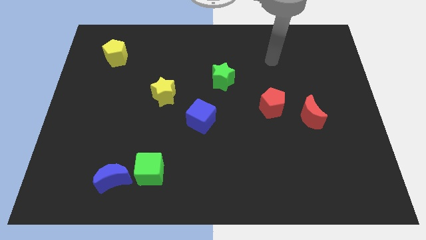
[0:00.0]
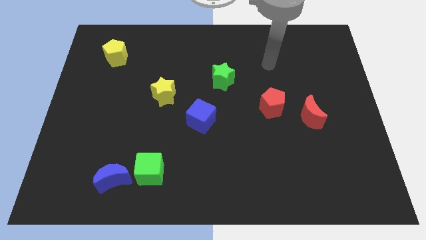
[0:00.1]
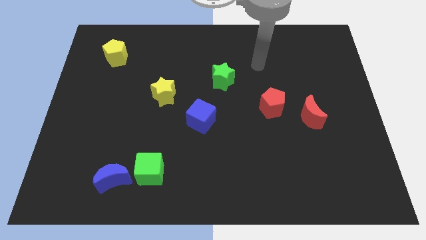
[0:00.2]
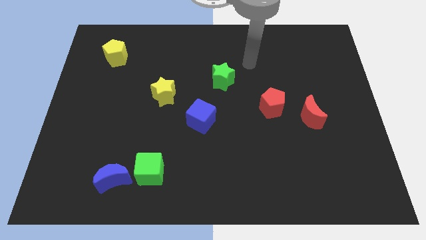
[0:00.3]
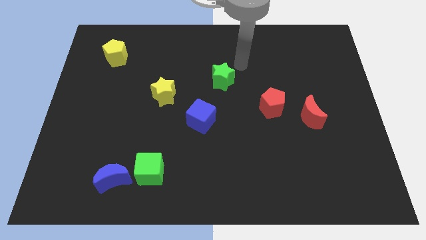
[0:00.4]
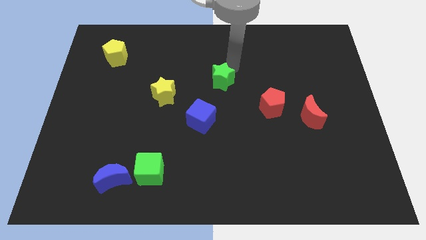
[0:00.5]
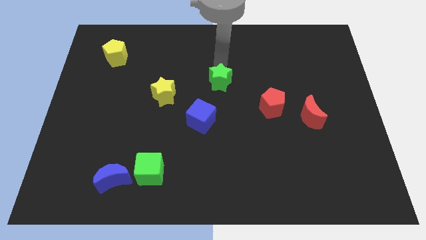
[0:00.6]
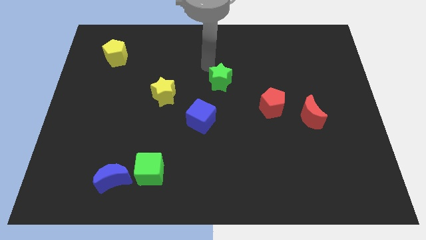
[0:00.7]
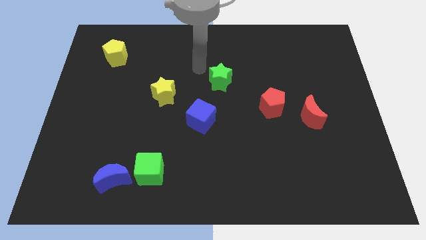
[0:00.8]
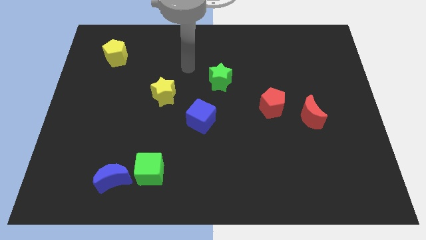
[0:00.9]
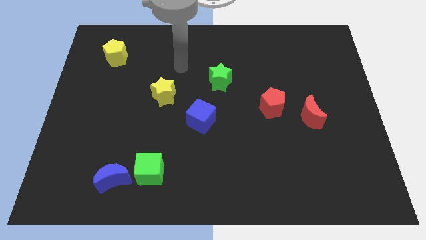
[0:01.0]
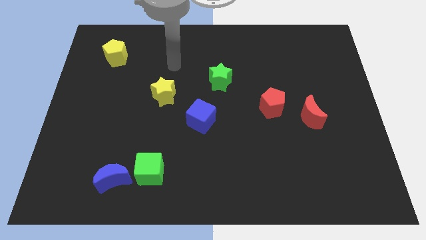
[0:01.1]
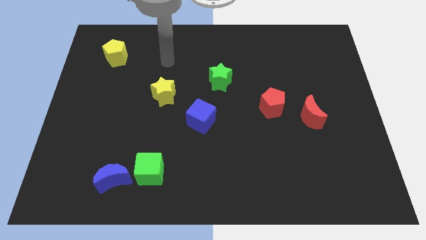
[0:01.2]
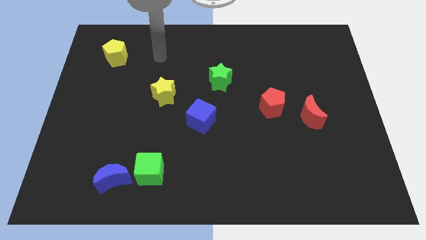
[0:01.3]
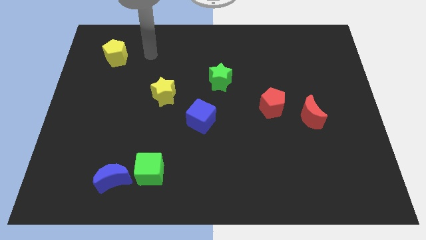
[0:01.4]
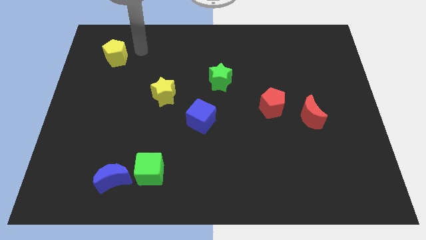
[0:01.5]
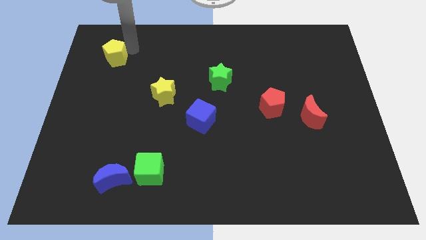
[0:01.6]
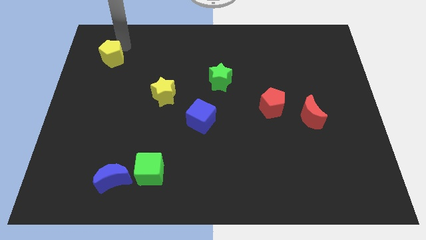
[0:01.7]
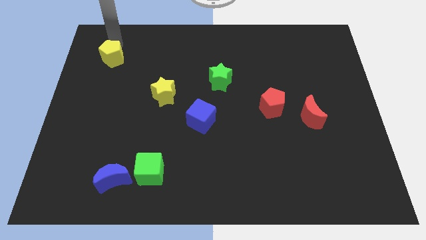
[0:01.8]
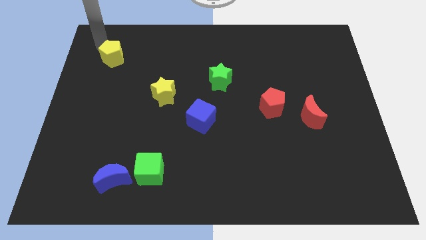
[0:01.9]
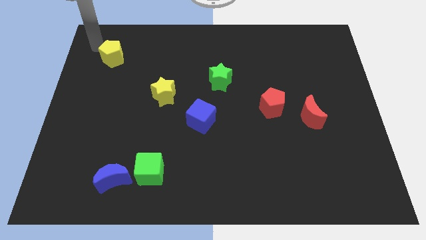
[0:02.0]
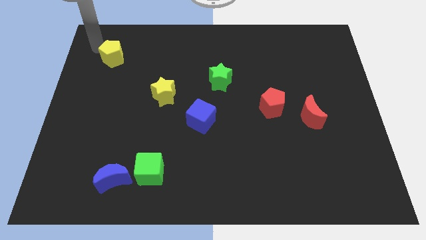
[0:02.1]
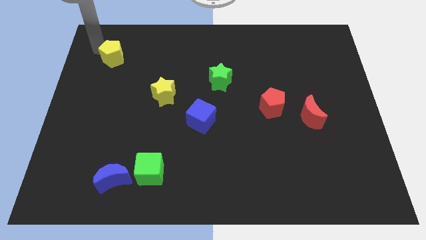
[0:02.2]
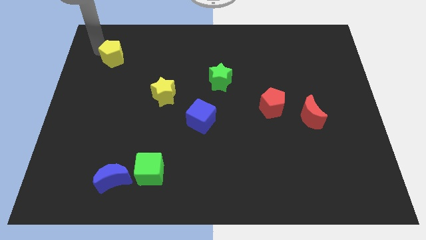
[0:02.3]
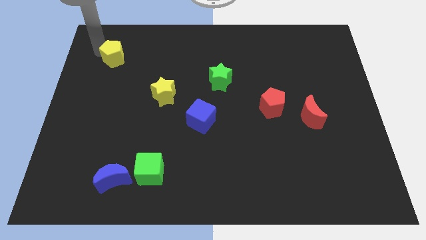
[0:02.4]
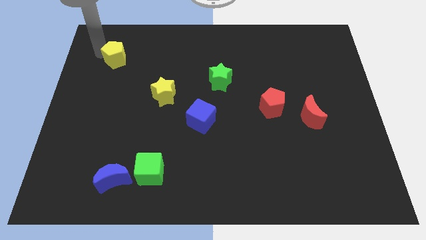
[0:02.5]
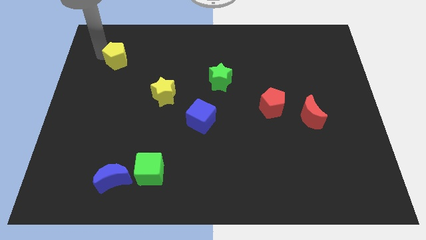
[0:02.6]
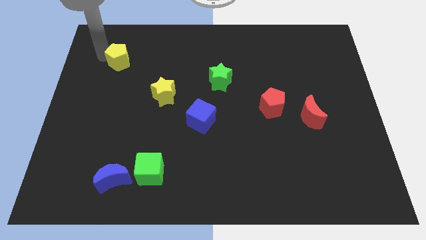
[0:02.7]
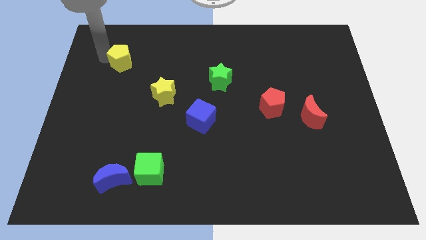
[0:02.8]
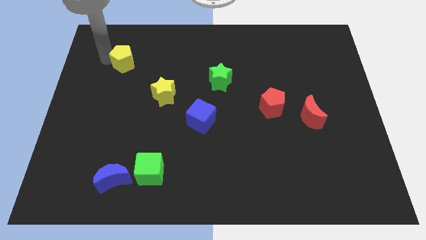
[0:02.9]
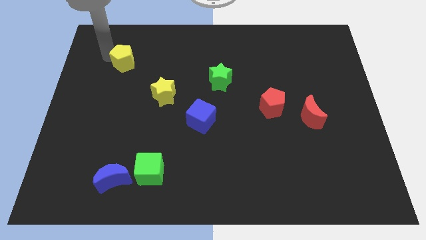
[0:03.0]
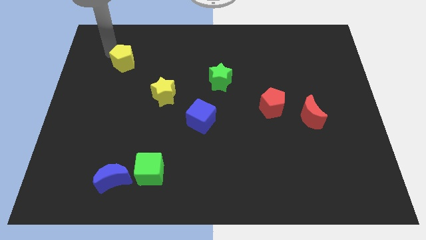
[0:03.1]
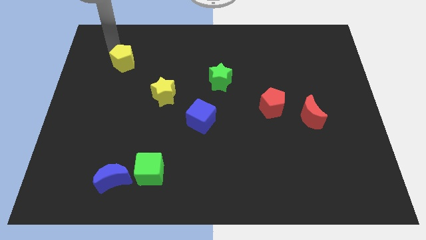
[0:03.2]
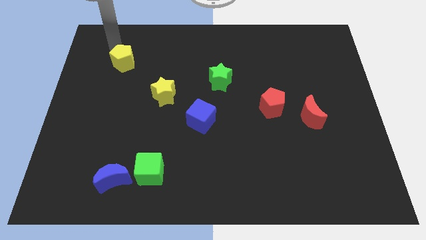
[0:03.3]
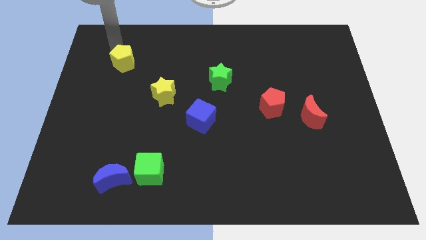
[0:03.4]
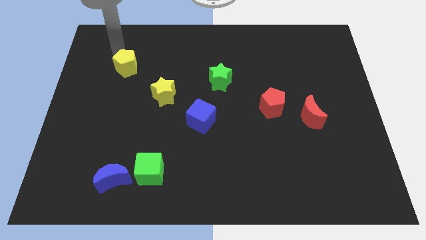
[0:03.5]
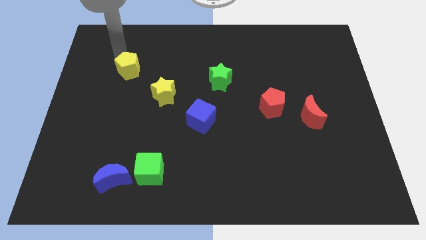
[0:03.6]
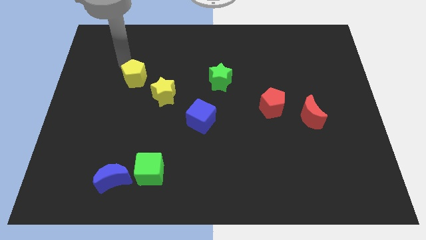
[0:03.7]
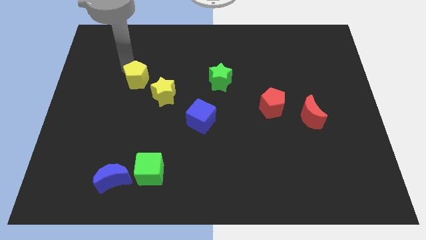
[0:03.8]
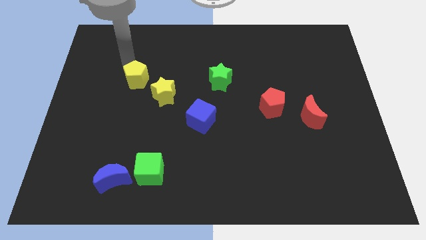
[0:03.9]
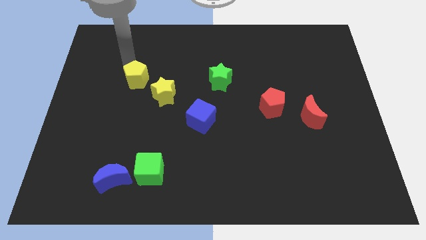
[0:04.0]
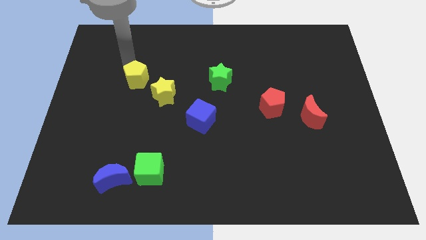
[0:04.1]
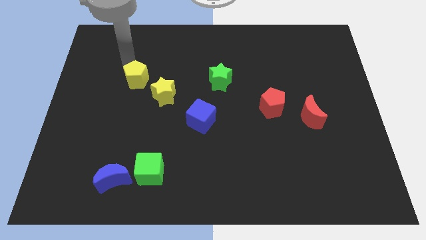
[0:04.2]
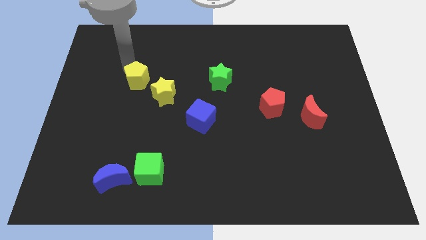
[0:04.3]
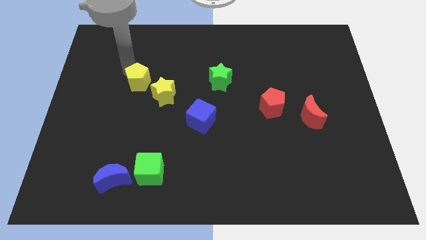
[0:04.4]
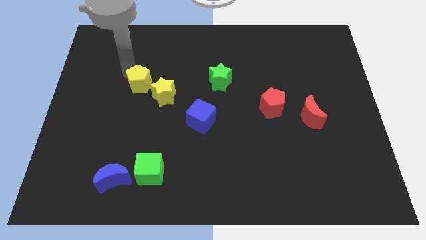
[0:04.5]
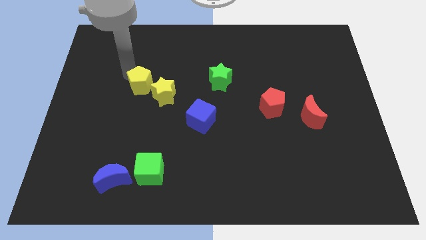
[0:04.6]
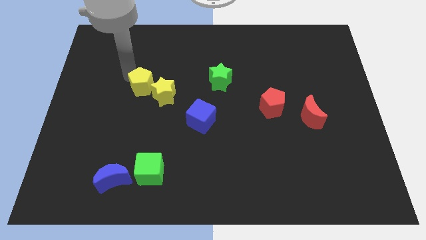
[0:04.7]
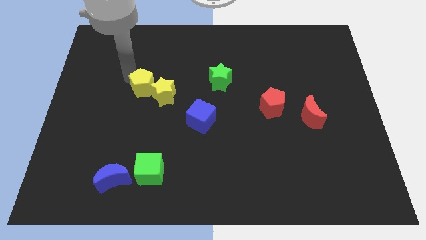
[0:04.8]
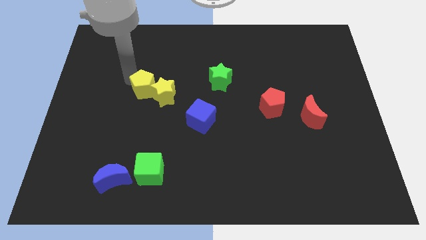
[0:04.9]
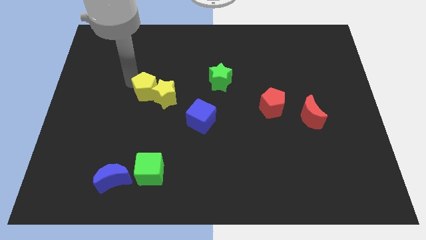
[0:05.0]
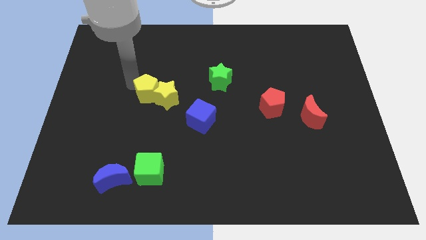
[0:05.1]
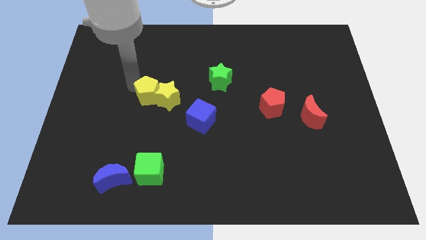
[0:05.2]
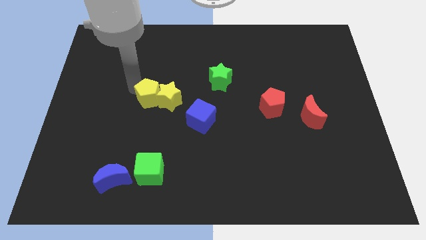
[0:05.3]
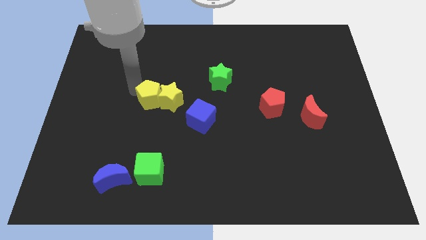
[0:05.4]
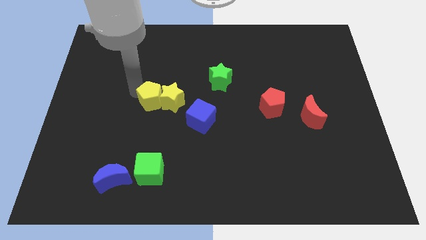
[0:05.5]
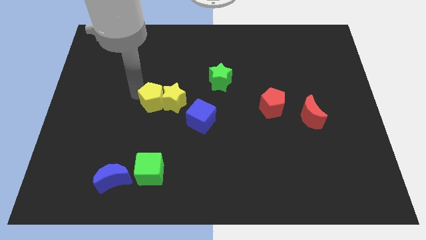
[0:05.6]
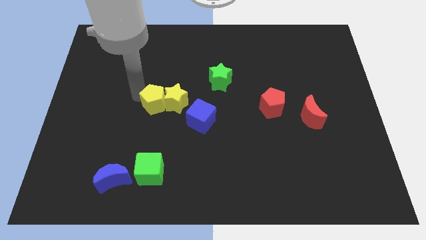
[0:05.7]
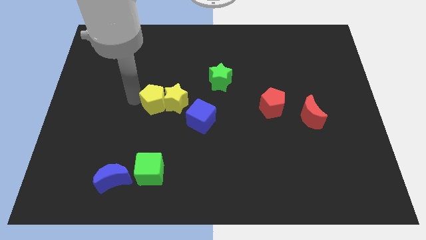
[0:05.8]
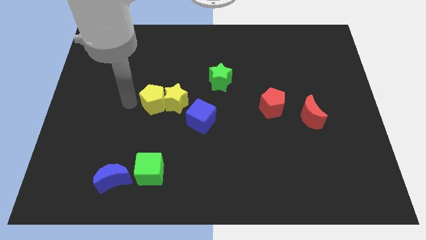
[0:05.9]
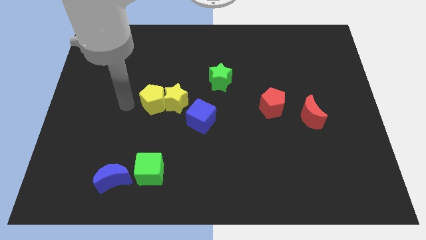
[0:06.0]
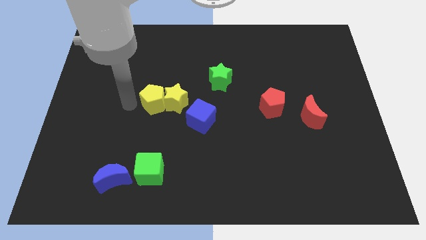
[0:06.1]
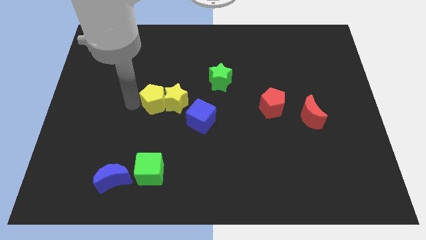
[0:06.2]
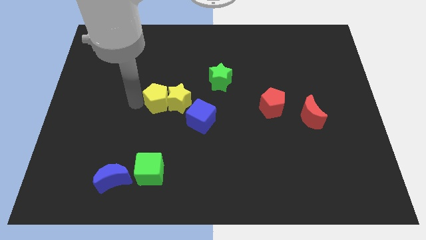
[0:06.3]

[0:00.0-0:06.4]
push the yellow pentagon to the top left side of the blue cube

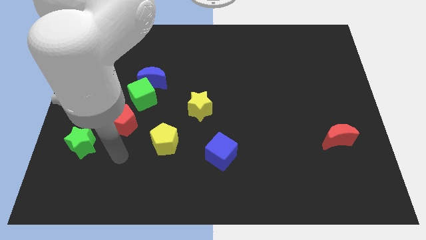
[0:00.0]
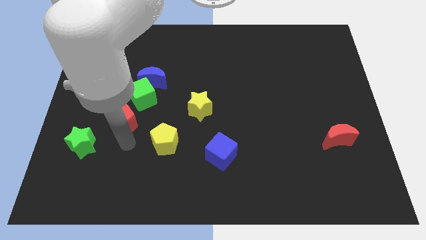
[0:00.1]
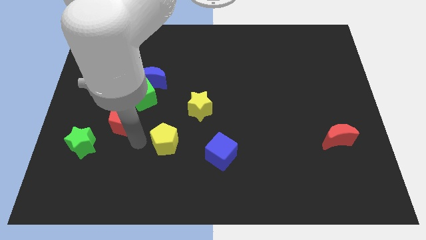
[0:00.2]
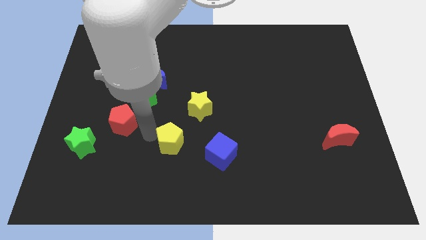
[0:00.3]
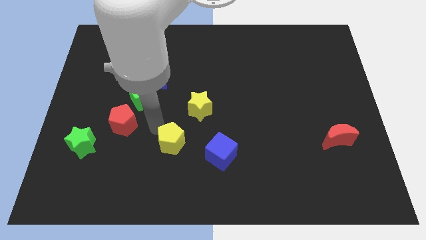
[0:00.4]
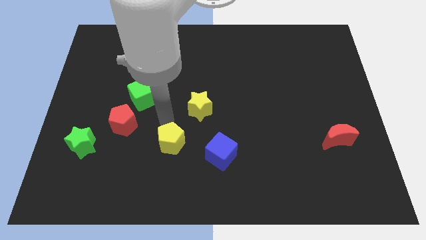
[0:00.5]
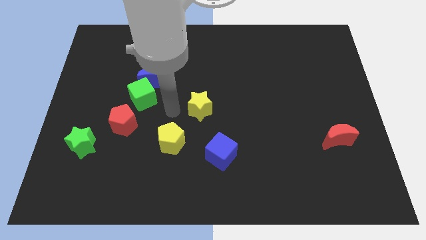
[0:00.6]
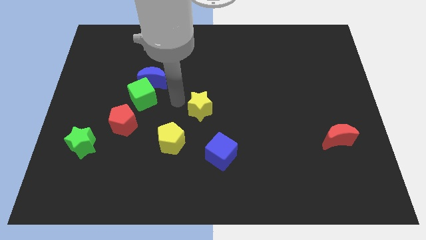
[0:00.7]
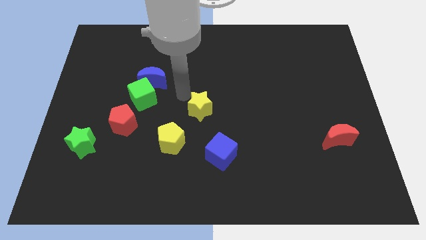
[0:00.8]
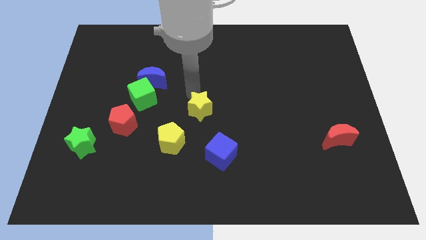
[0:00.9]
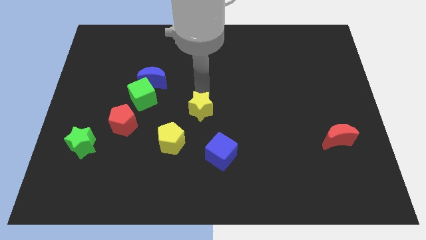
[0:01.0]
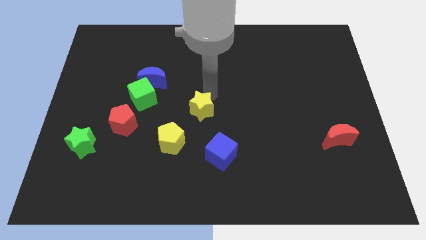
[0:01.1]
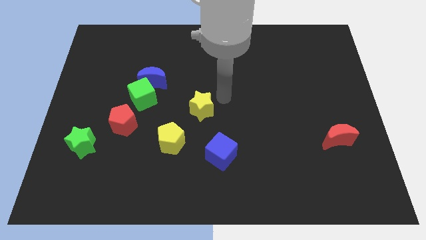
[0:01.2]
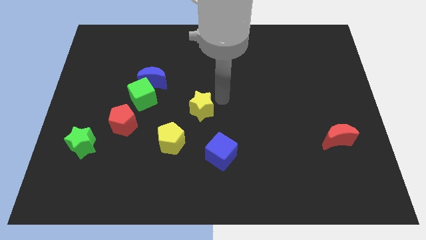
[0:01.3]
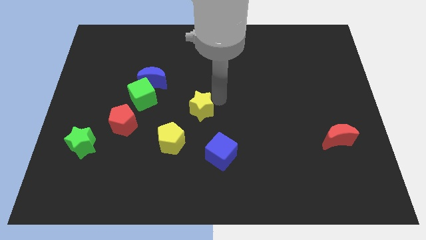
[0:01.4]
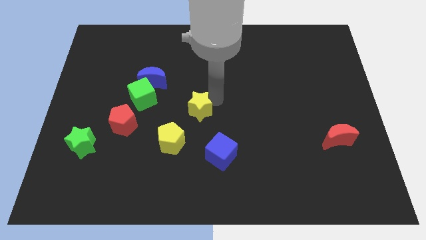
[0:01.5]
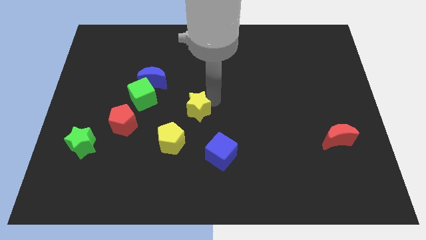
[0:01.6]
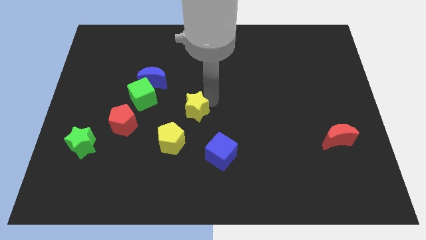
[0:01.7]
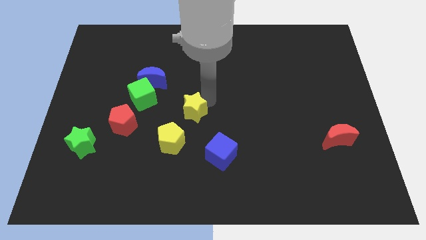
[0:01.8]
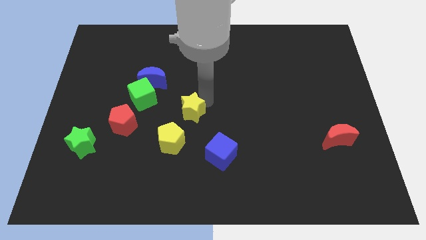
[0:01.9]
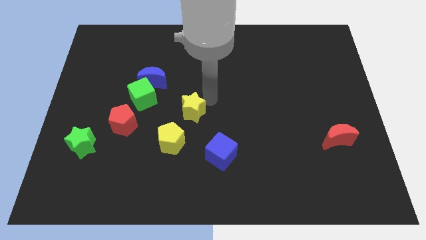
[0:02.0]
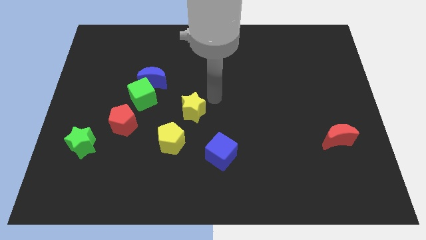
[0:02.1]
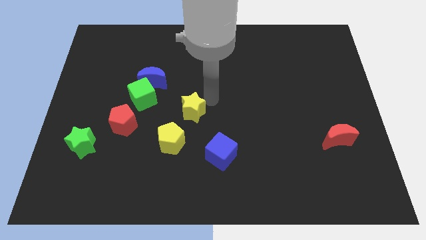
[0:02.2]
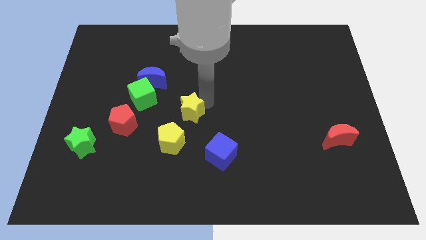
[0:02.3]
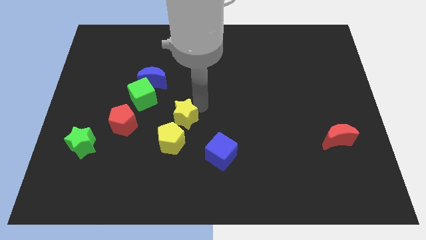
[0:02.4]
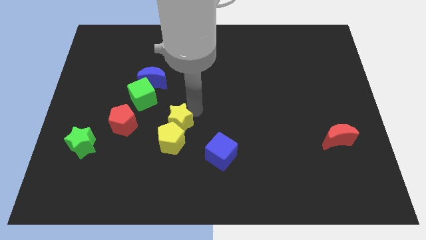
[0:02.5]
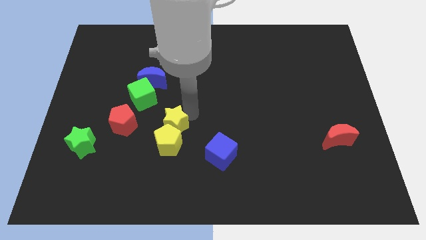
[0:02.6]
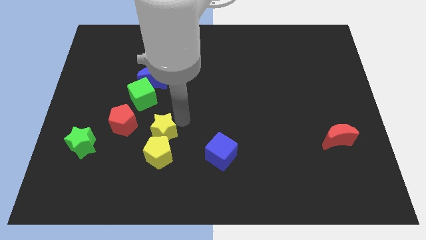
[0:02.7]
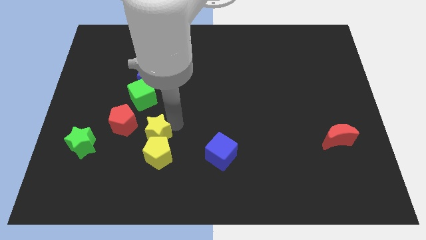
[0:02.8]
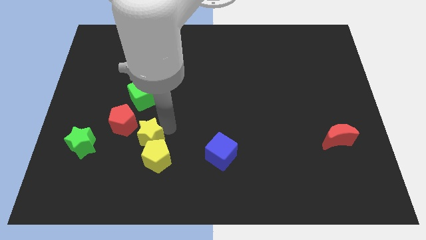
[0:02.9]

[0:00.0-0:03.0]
move the yellow star just right of the green star
